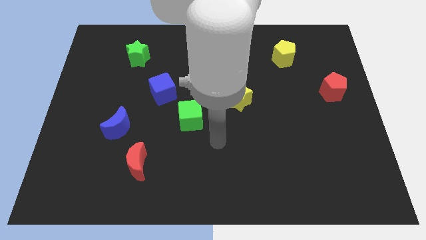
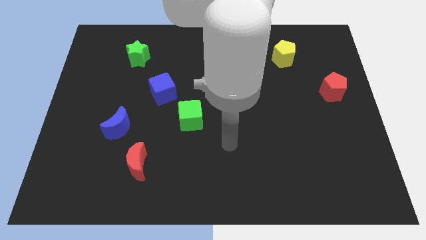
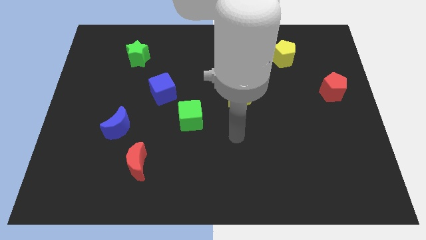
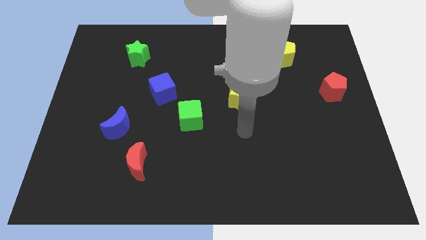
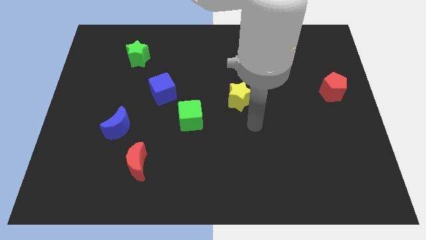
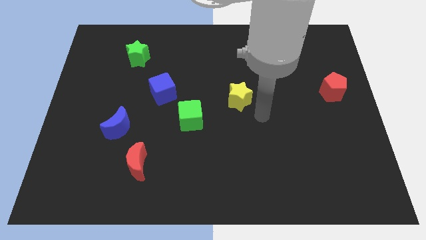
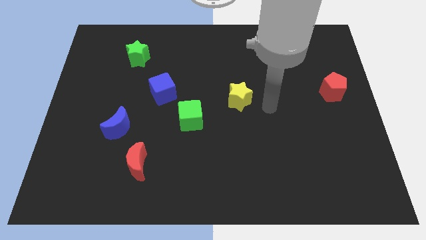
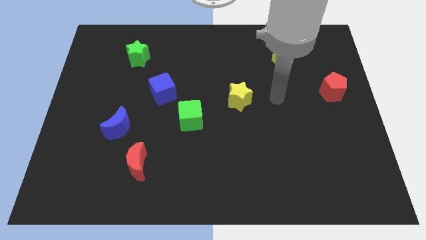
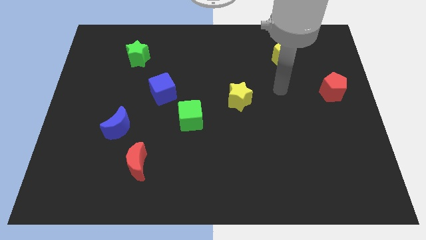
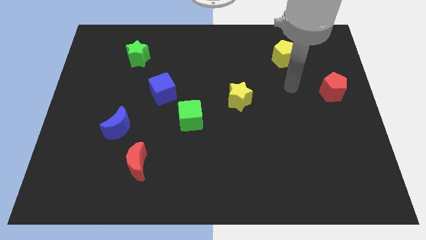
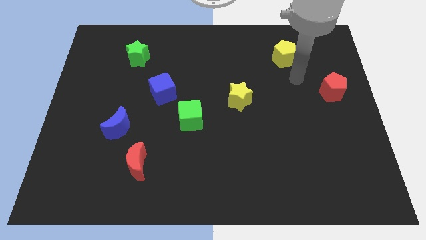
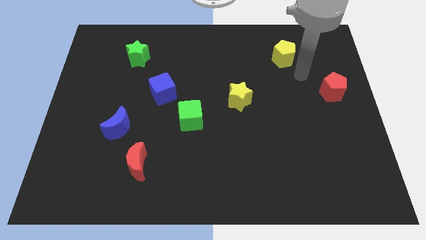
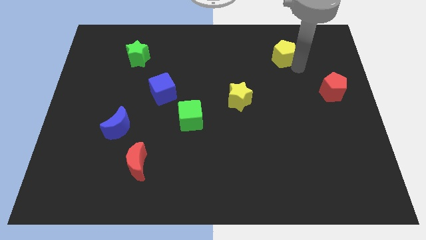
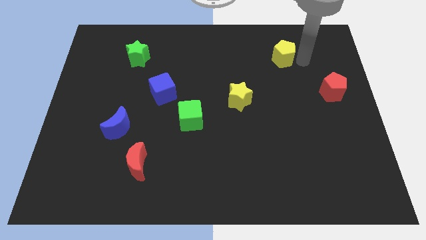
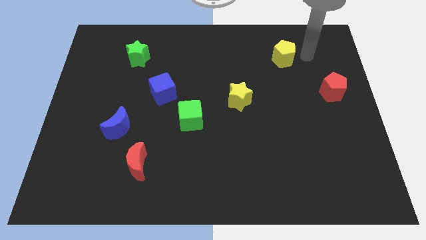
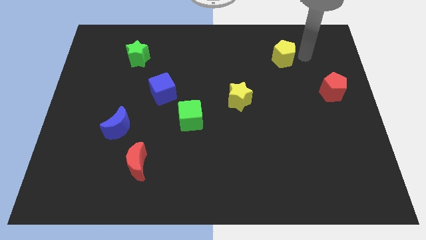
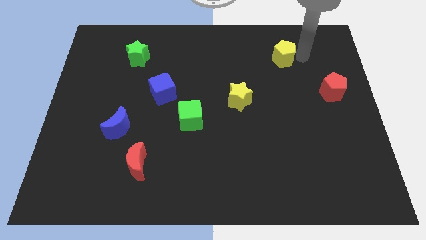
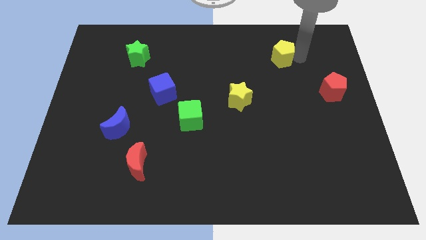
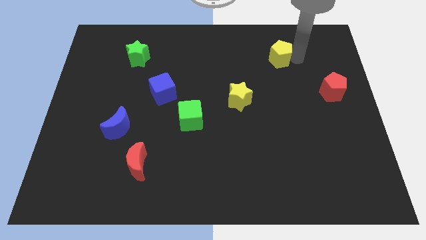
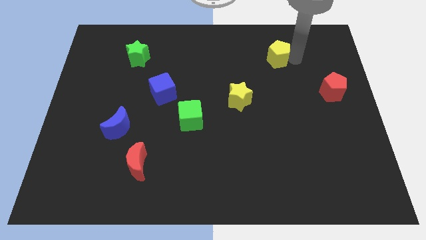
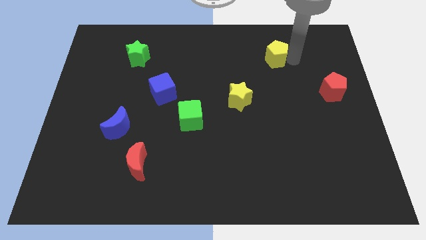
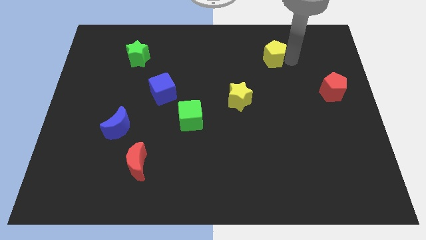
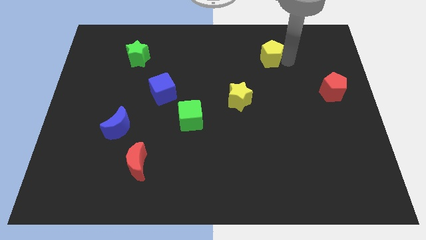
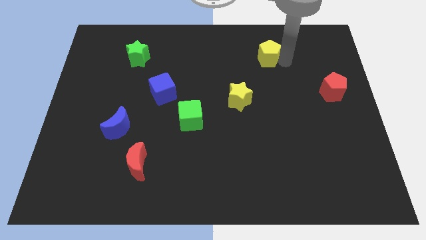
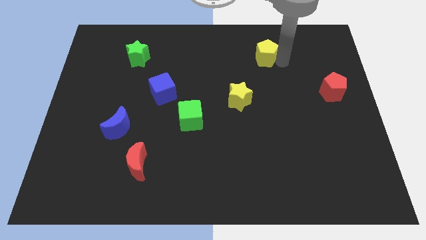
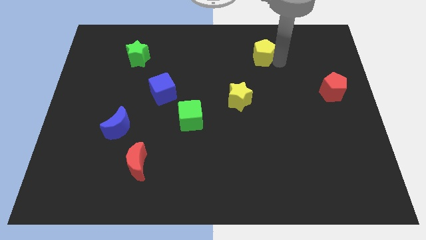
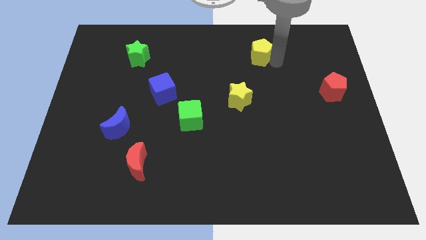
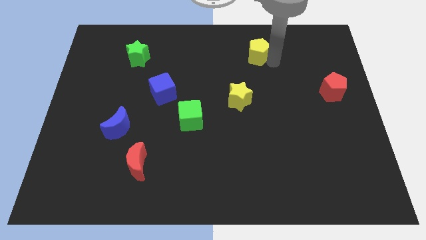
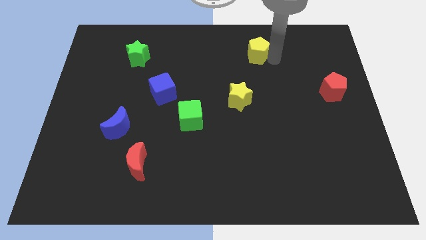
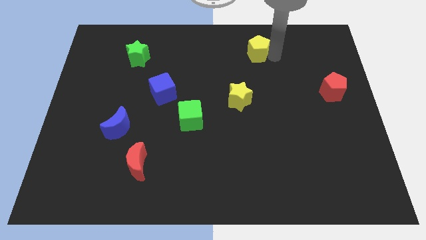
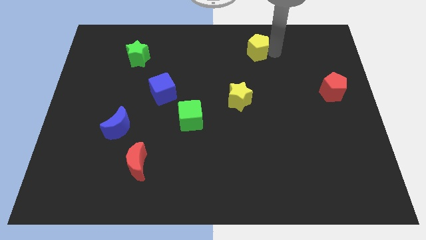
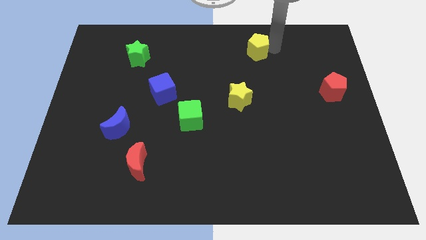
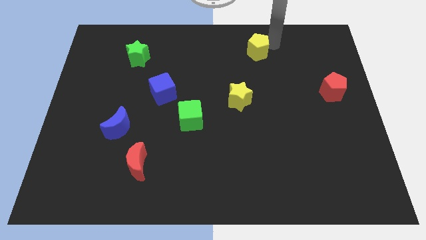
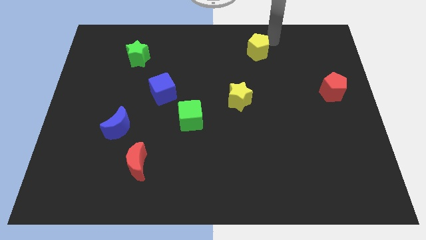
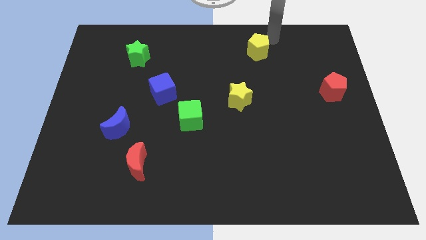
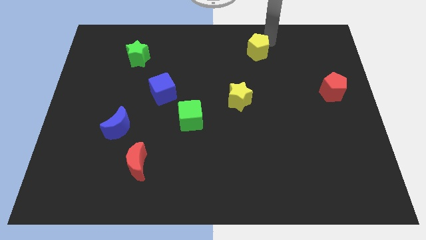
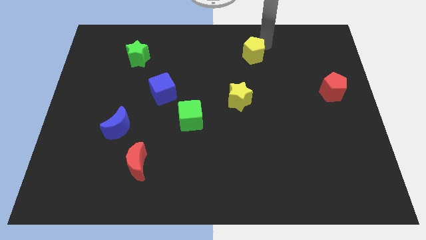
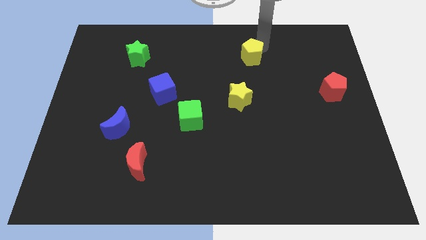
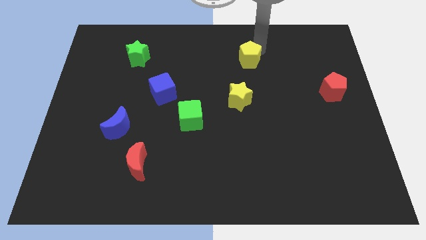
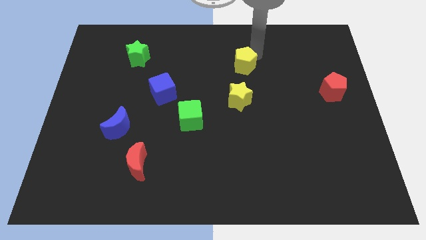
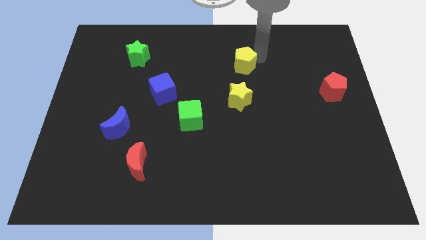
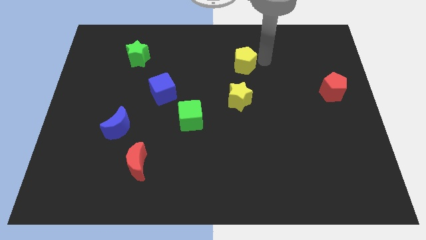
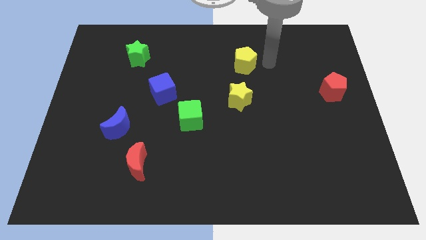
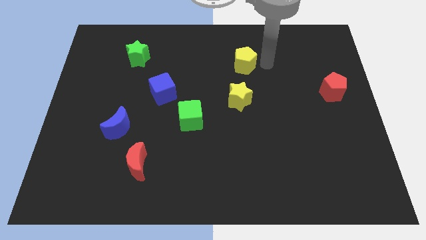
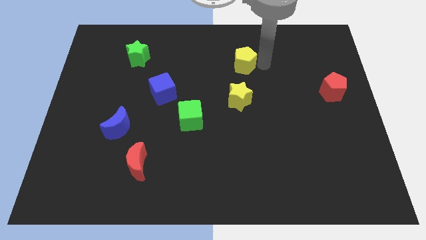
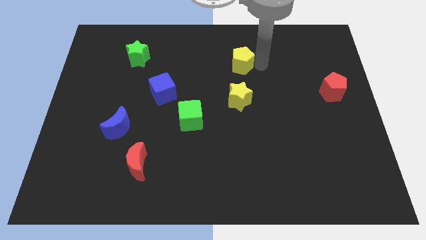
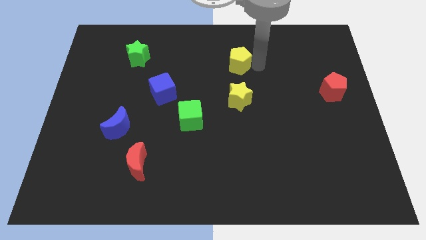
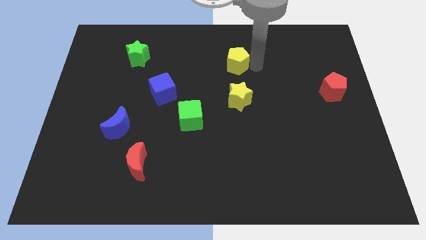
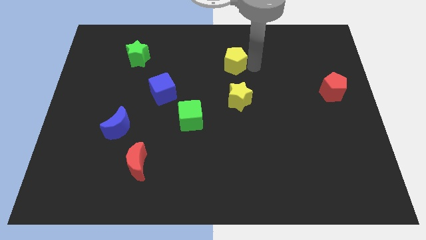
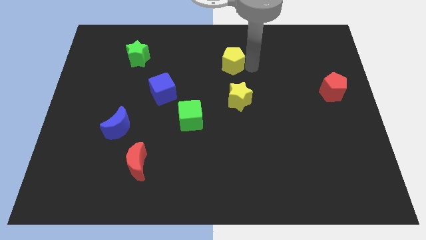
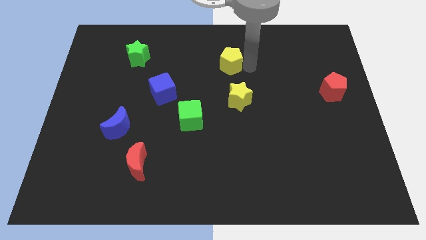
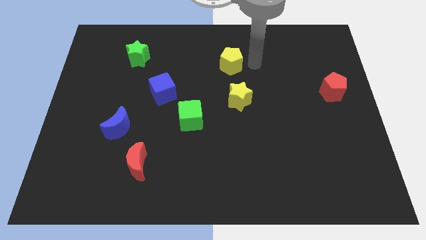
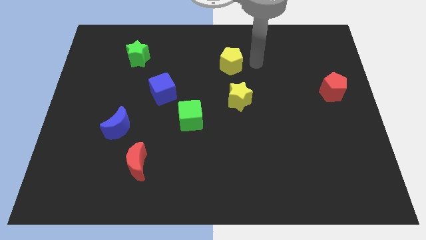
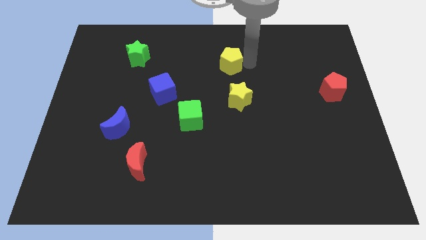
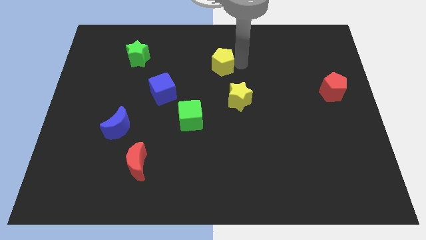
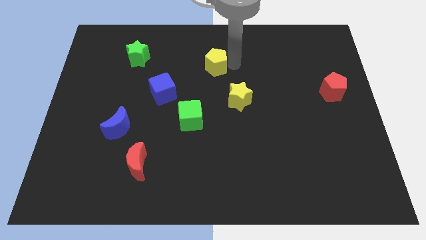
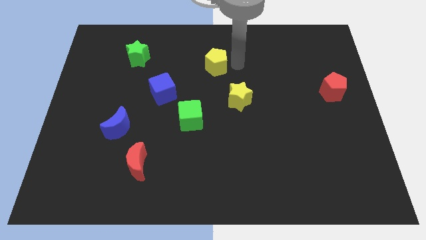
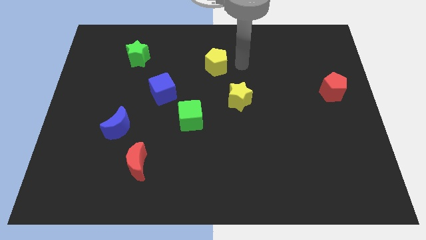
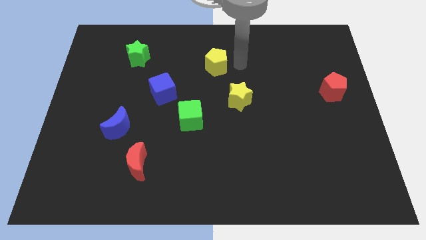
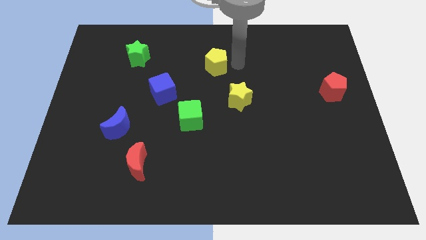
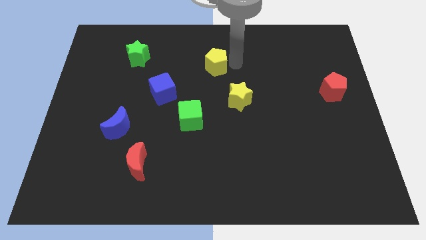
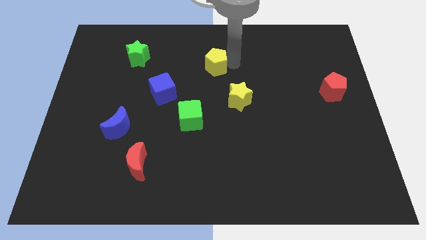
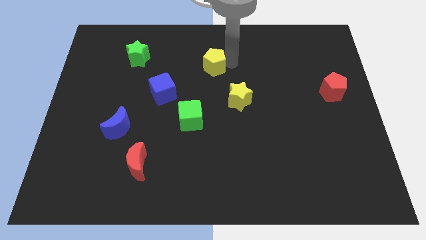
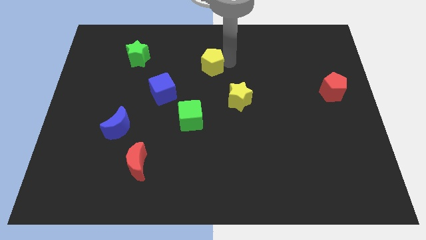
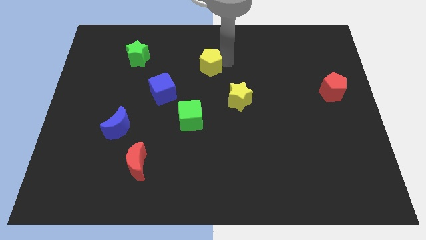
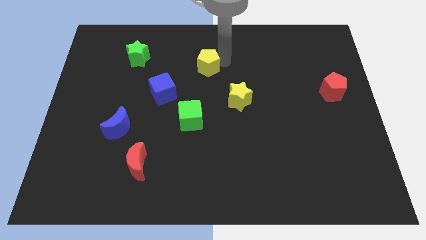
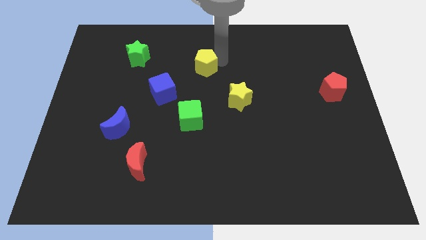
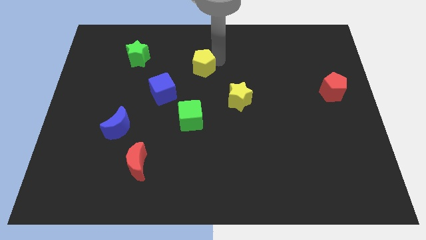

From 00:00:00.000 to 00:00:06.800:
move the yellow pentagon to the top right side of the blue cube

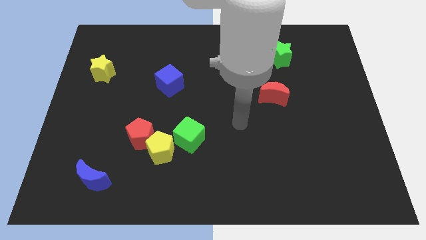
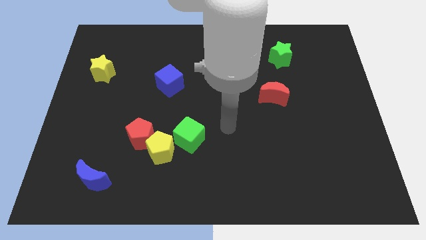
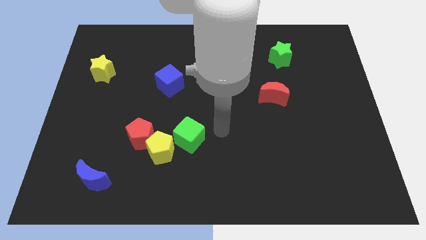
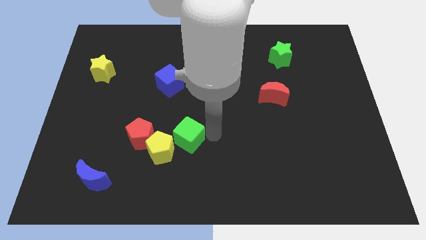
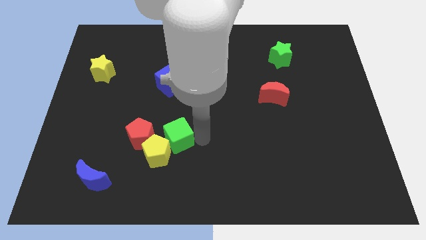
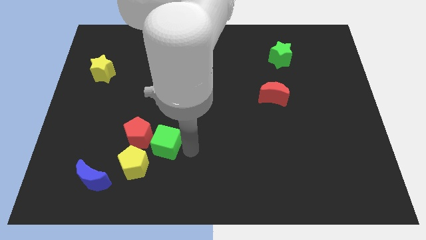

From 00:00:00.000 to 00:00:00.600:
slide the yellow pentagon to the bottom left of the red pentagon
